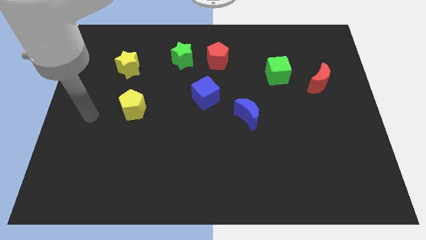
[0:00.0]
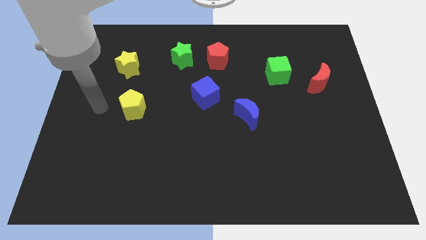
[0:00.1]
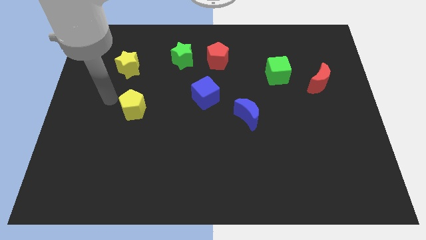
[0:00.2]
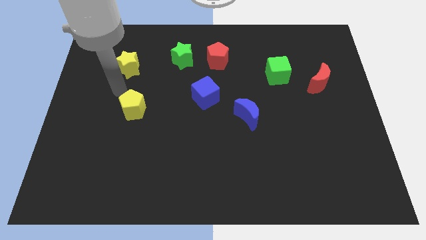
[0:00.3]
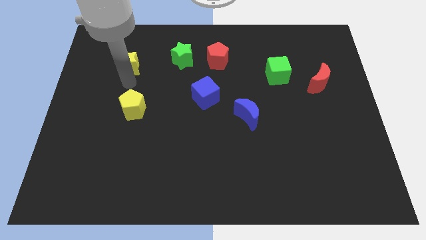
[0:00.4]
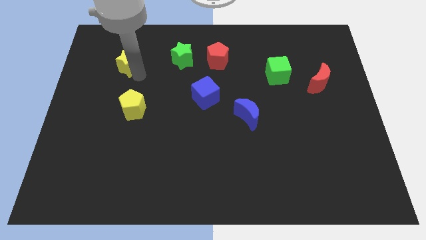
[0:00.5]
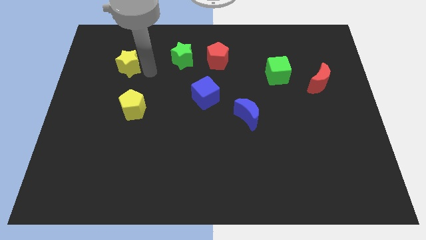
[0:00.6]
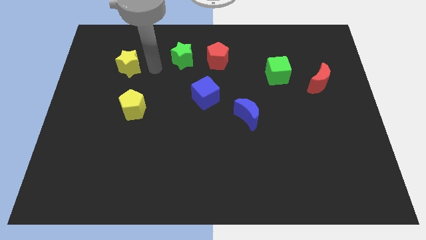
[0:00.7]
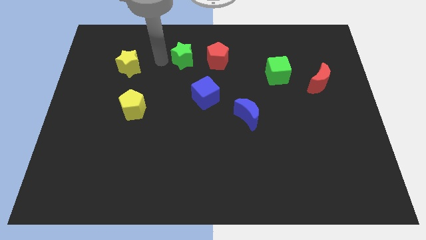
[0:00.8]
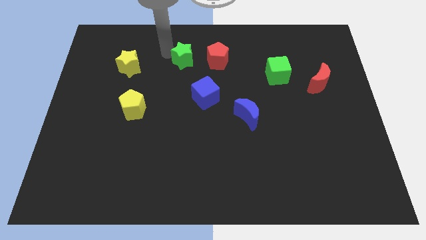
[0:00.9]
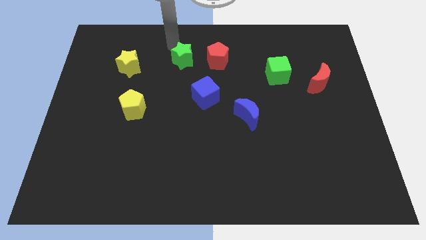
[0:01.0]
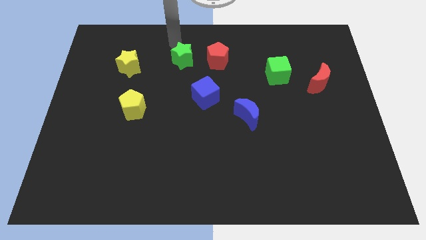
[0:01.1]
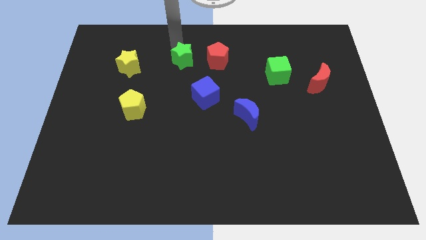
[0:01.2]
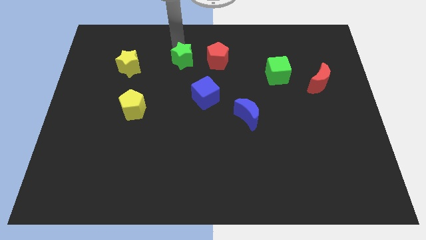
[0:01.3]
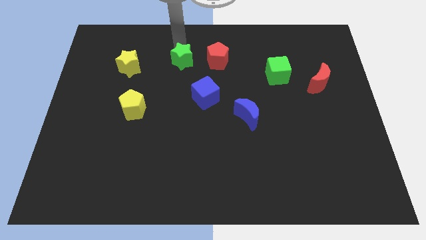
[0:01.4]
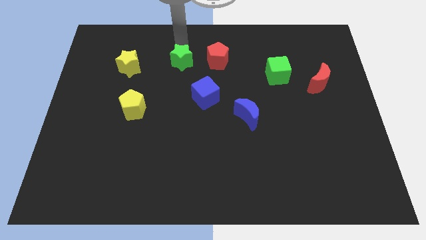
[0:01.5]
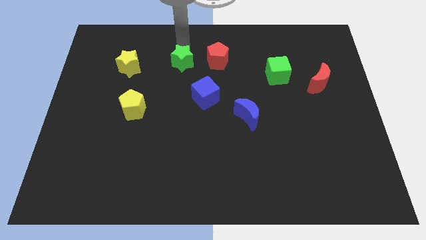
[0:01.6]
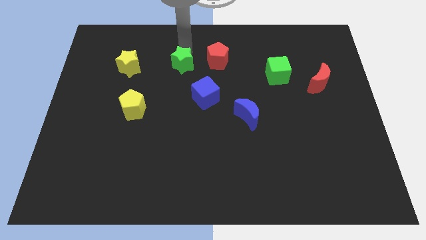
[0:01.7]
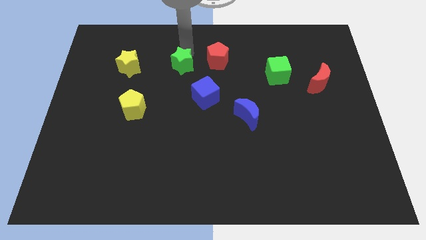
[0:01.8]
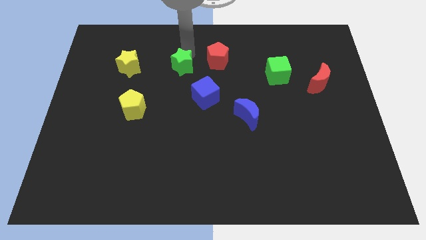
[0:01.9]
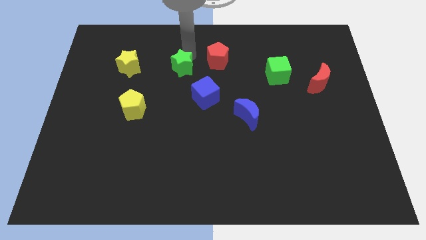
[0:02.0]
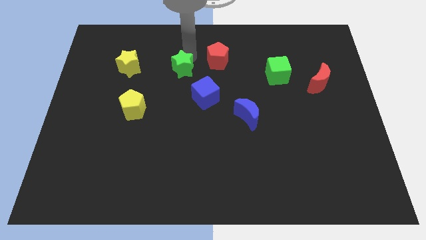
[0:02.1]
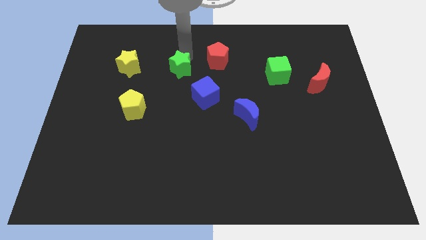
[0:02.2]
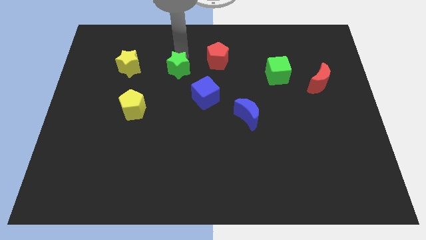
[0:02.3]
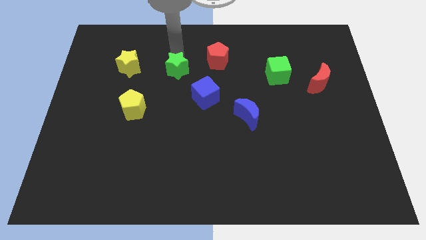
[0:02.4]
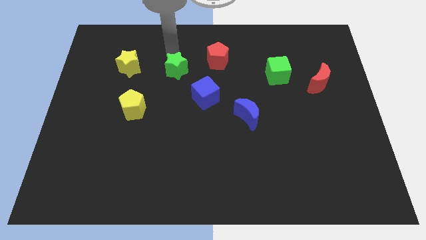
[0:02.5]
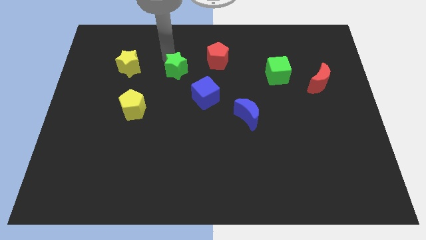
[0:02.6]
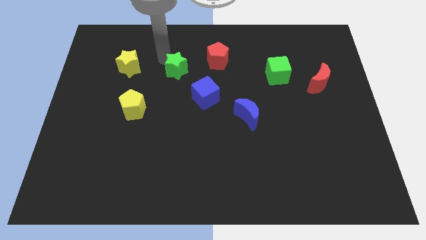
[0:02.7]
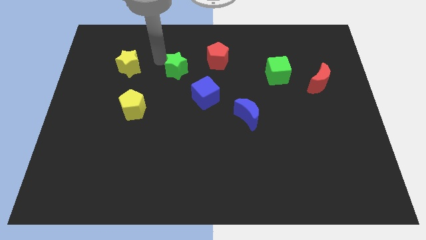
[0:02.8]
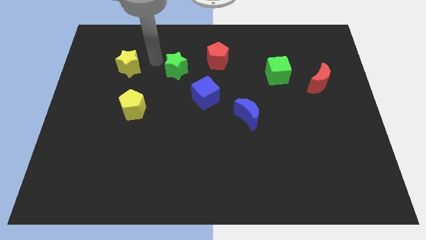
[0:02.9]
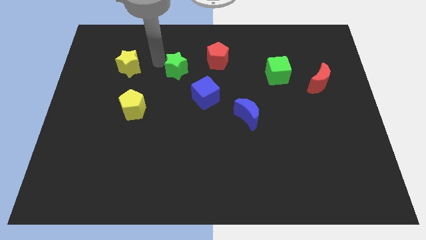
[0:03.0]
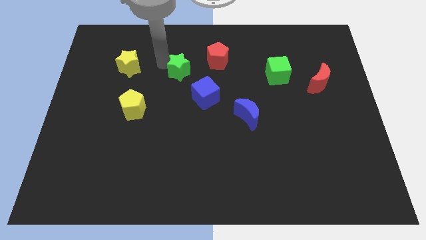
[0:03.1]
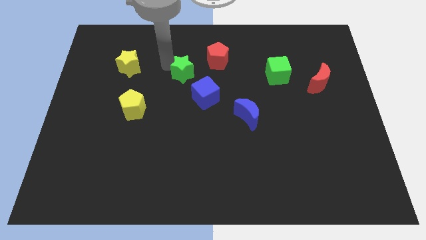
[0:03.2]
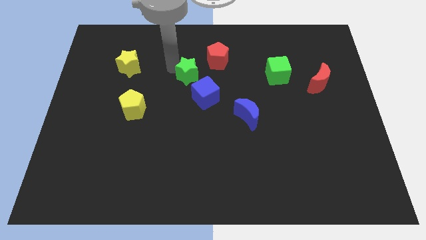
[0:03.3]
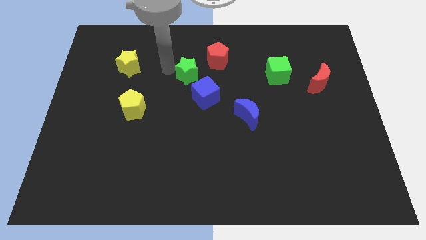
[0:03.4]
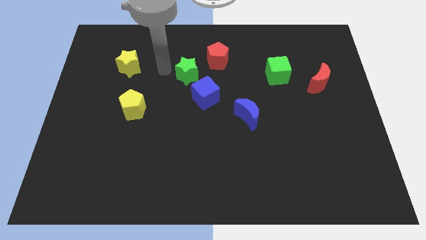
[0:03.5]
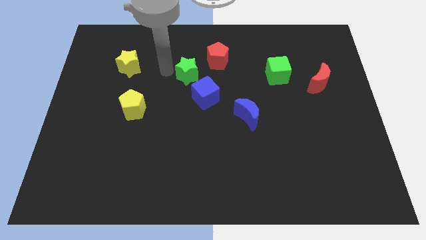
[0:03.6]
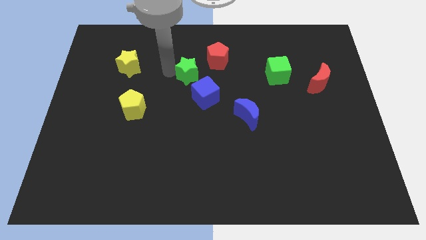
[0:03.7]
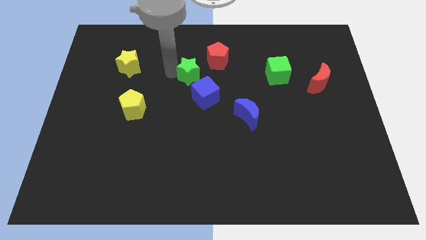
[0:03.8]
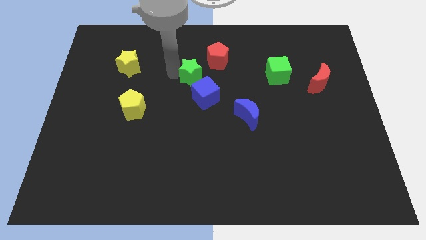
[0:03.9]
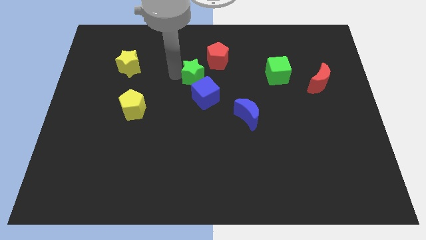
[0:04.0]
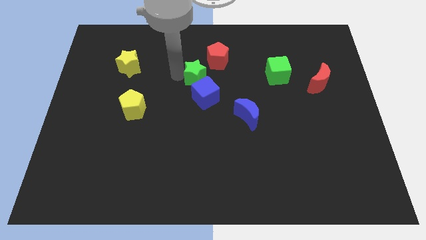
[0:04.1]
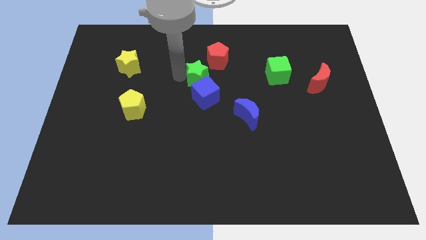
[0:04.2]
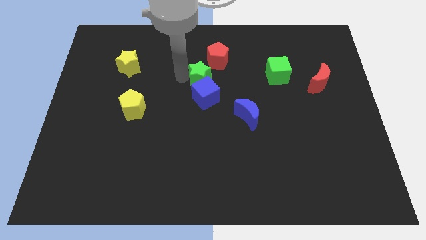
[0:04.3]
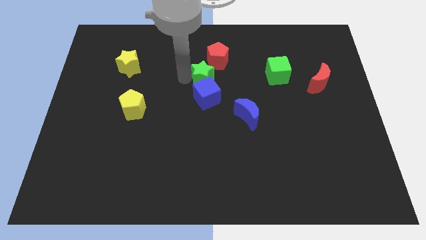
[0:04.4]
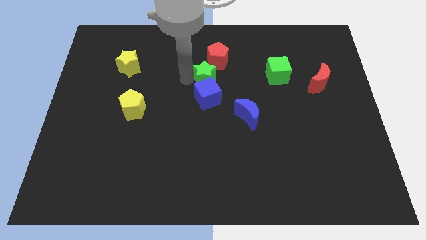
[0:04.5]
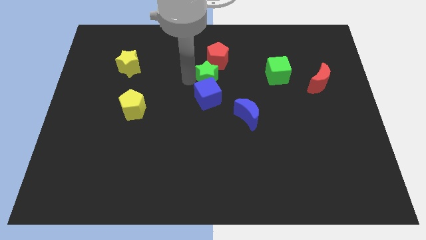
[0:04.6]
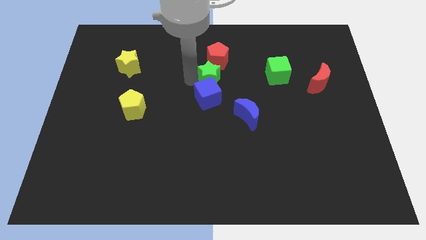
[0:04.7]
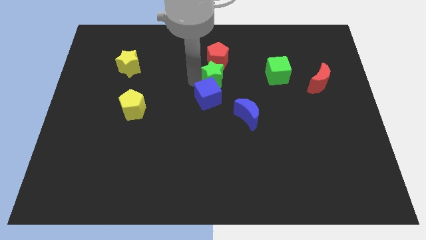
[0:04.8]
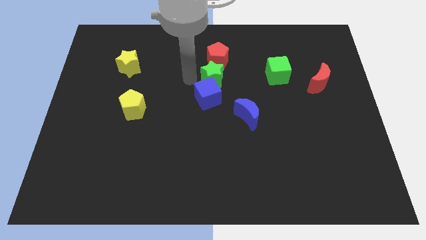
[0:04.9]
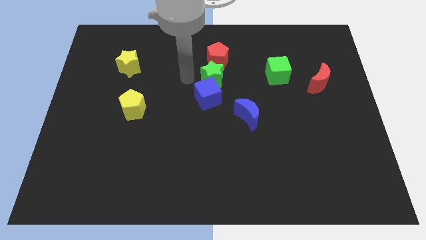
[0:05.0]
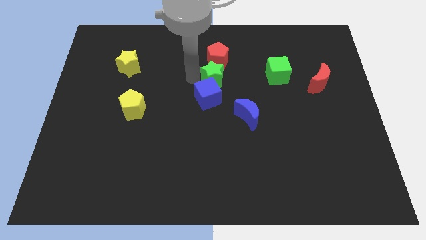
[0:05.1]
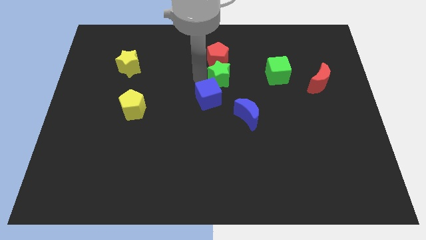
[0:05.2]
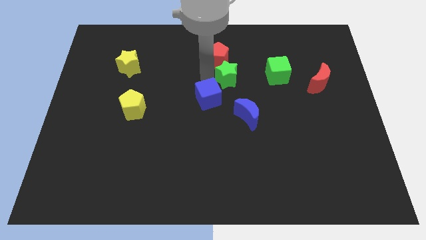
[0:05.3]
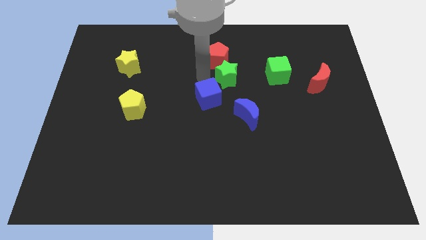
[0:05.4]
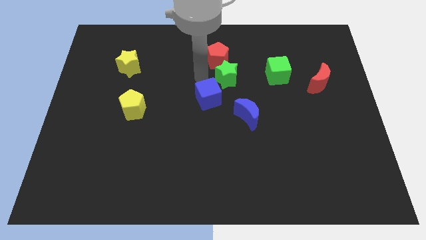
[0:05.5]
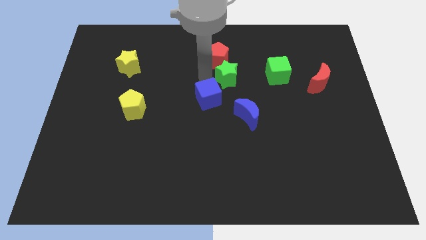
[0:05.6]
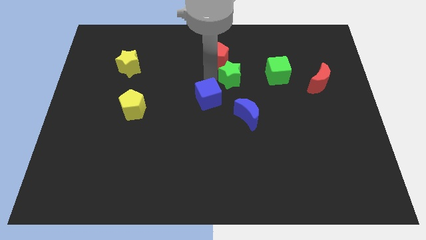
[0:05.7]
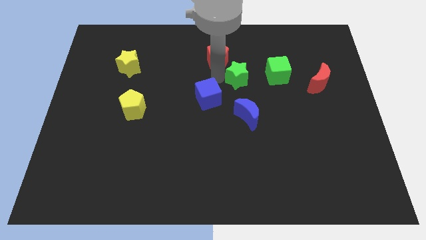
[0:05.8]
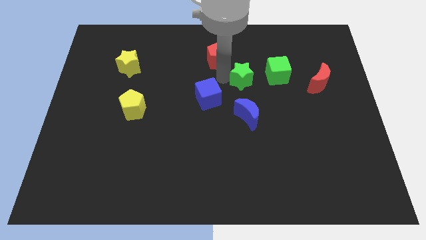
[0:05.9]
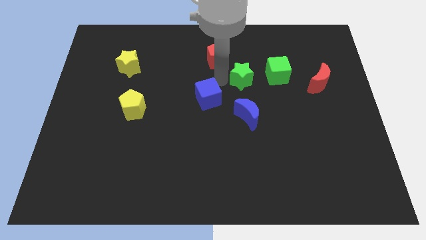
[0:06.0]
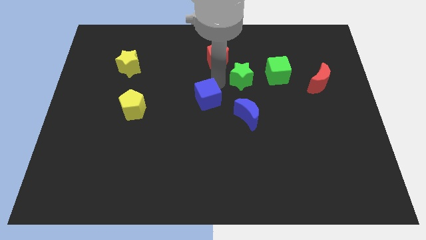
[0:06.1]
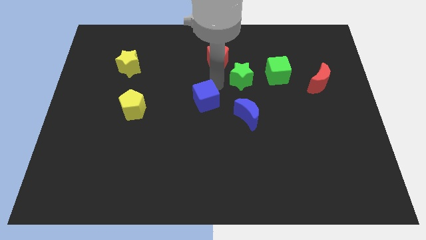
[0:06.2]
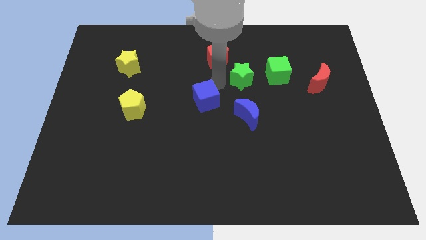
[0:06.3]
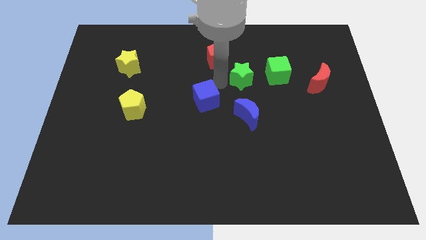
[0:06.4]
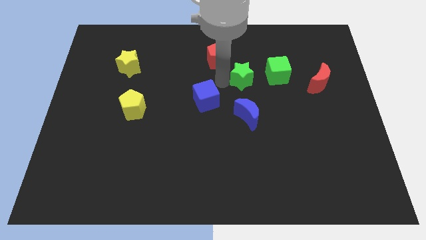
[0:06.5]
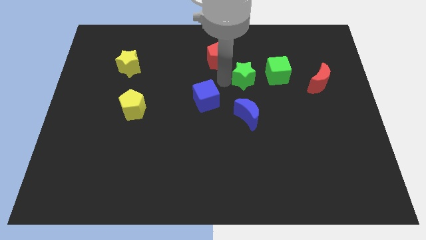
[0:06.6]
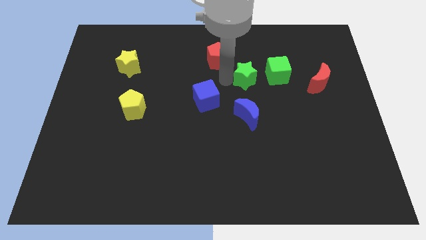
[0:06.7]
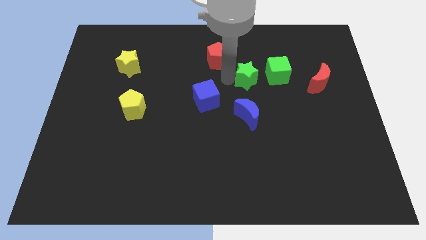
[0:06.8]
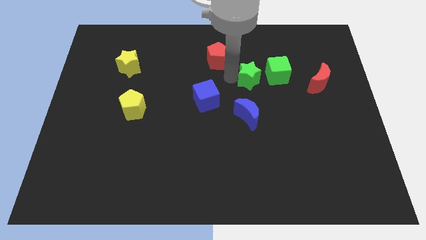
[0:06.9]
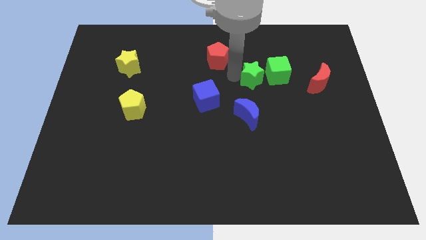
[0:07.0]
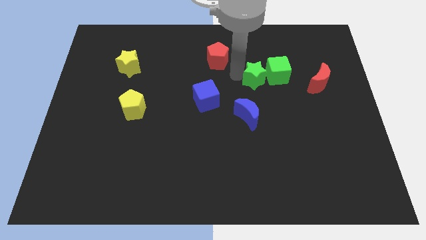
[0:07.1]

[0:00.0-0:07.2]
move the green star close to the green cube
